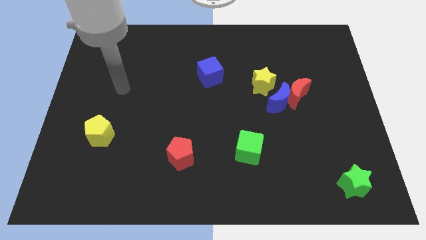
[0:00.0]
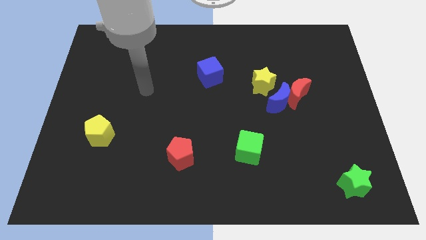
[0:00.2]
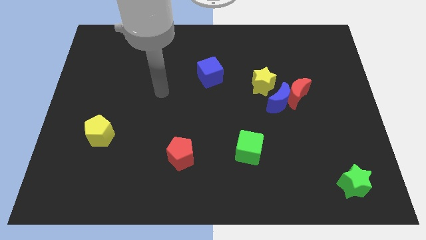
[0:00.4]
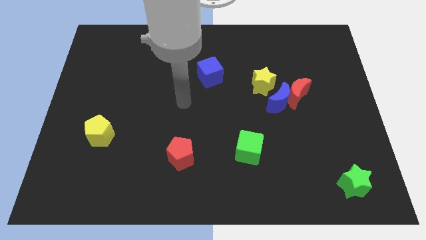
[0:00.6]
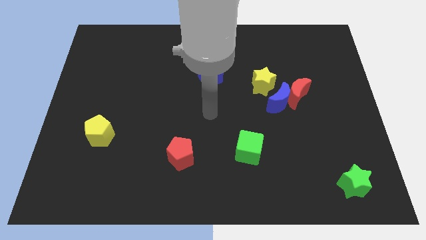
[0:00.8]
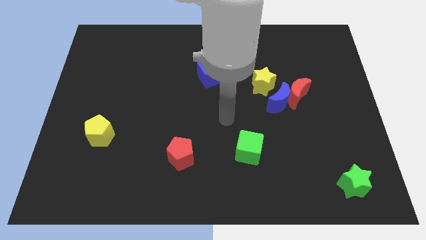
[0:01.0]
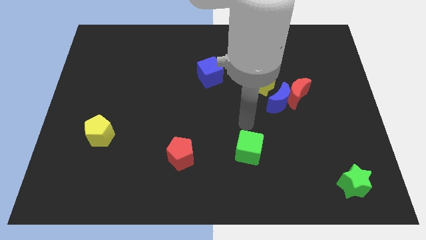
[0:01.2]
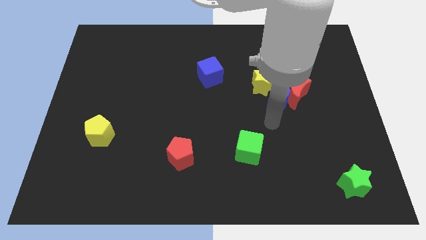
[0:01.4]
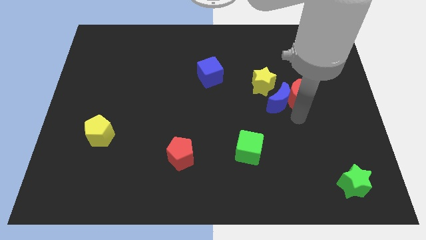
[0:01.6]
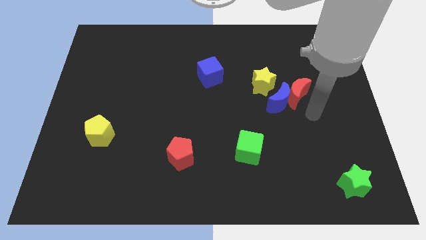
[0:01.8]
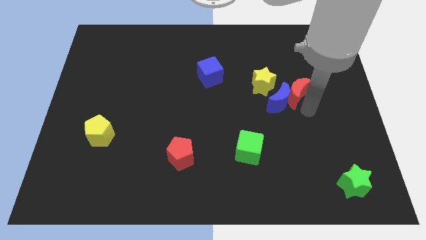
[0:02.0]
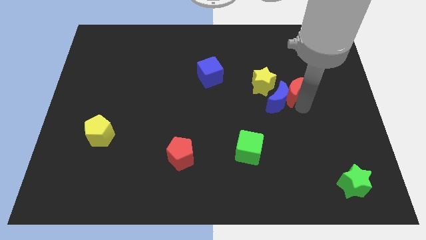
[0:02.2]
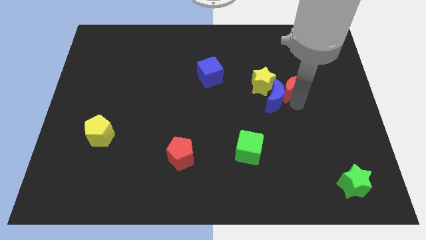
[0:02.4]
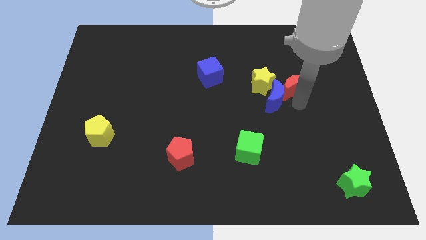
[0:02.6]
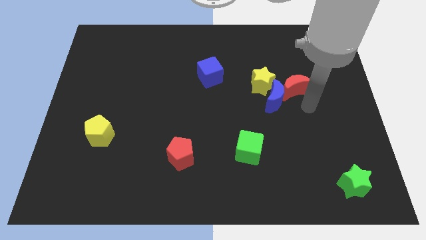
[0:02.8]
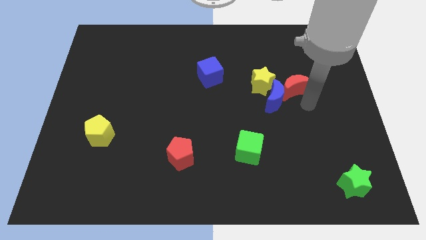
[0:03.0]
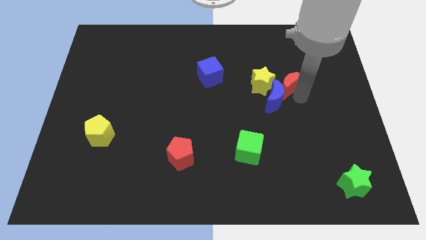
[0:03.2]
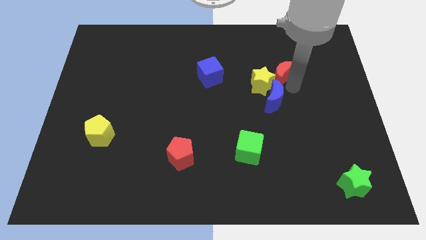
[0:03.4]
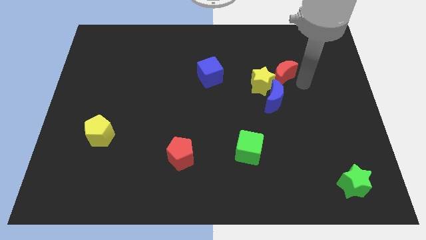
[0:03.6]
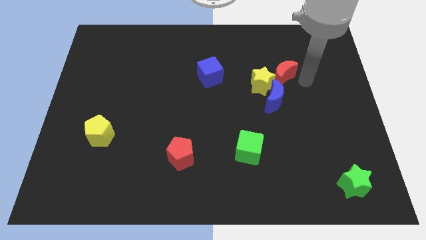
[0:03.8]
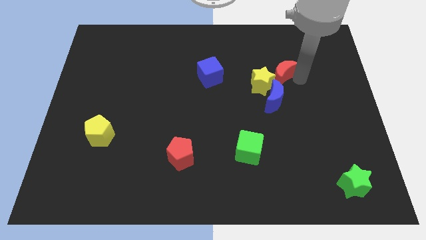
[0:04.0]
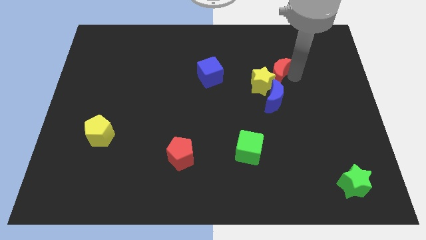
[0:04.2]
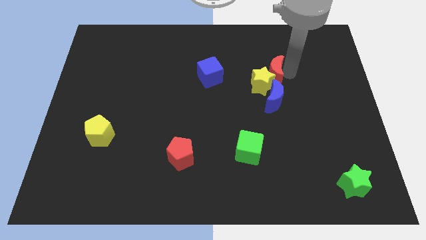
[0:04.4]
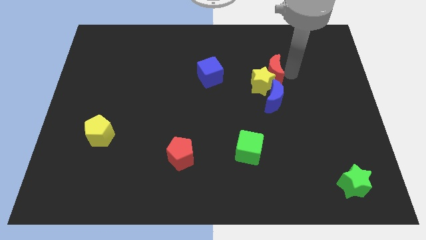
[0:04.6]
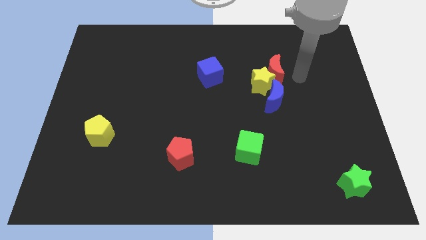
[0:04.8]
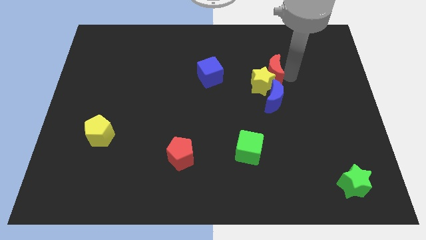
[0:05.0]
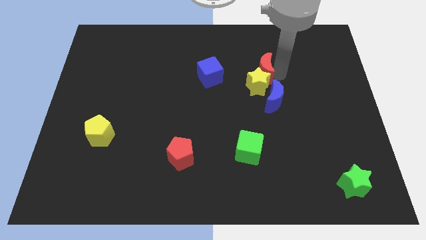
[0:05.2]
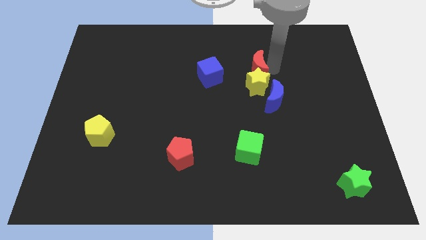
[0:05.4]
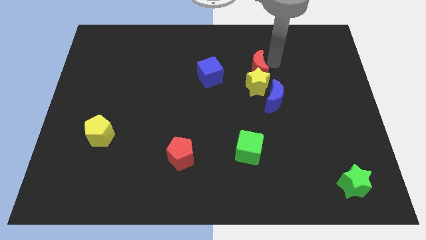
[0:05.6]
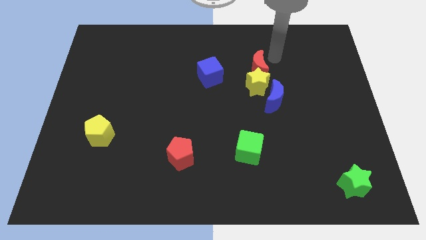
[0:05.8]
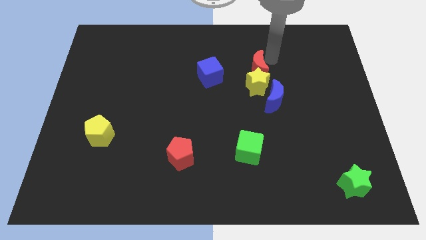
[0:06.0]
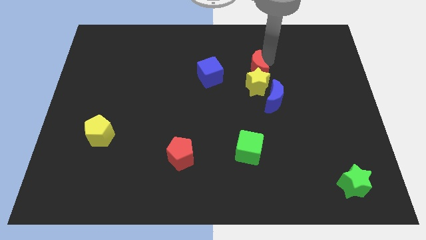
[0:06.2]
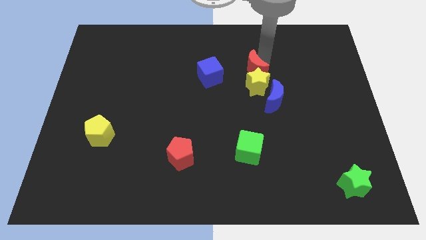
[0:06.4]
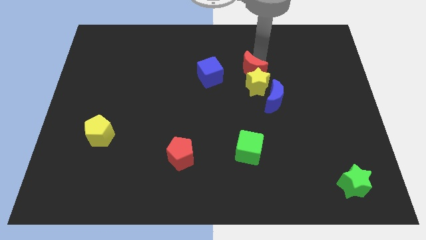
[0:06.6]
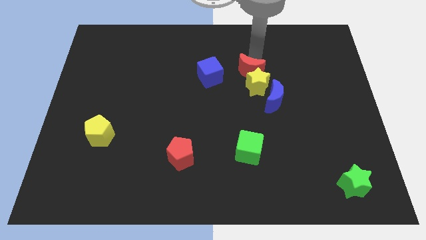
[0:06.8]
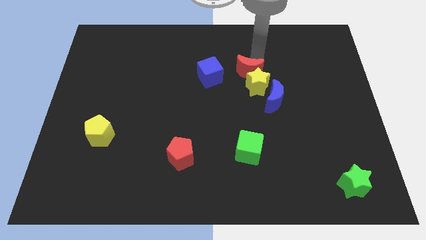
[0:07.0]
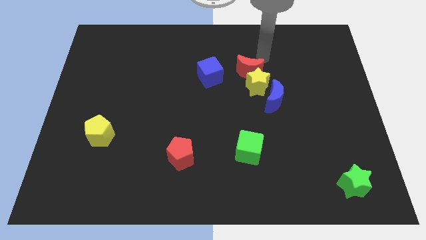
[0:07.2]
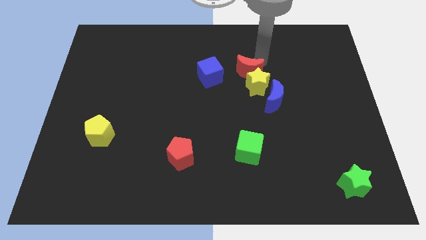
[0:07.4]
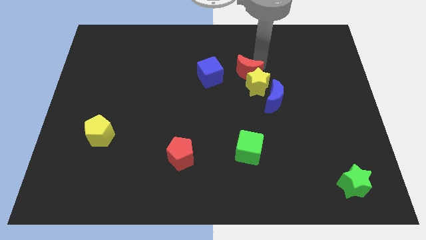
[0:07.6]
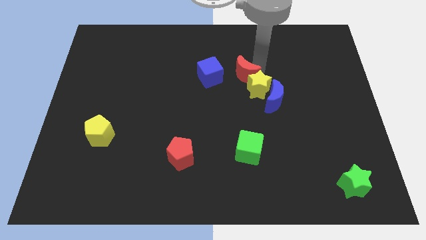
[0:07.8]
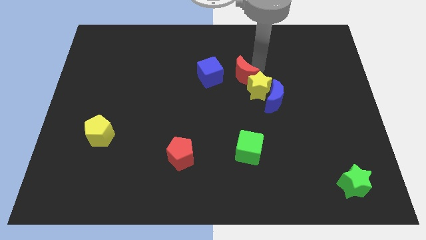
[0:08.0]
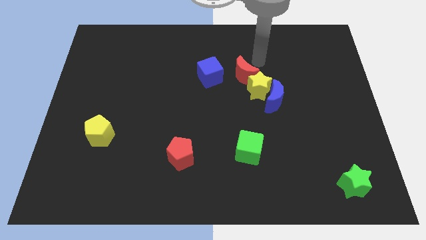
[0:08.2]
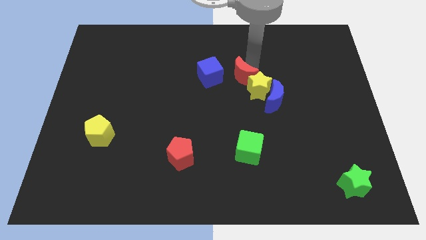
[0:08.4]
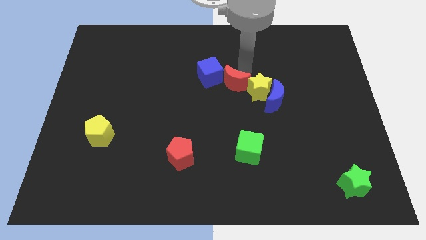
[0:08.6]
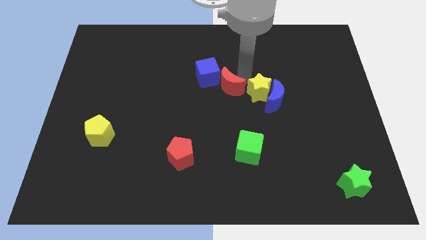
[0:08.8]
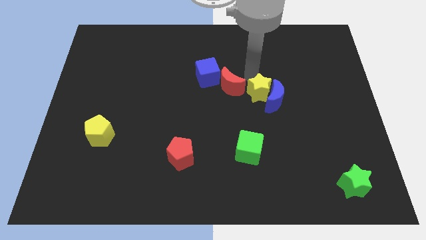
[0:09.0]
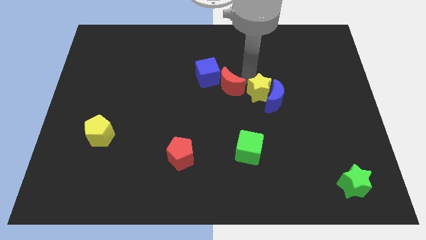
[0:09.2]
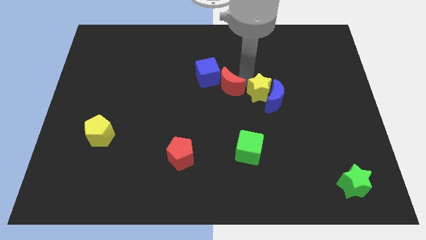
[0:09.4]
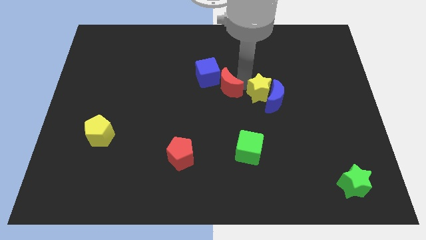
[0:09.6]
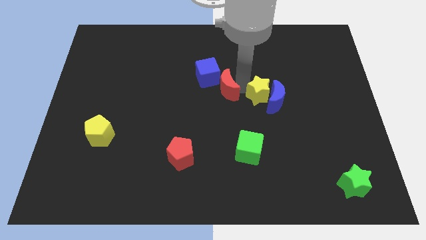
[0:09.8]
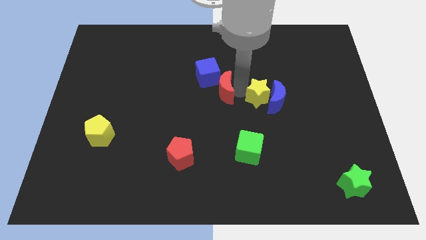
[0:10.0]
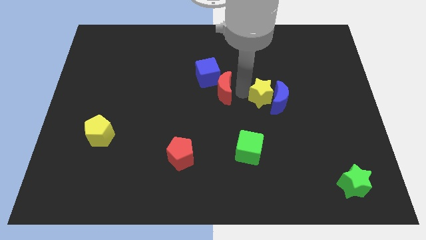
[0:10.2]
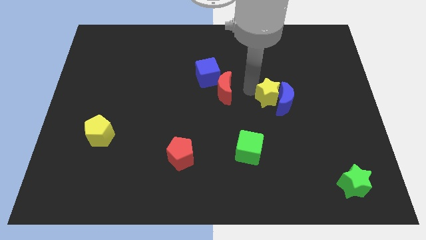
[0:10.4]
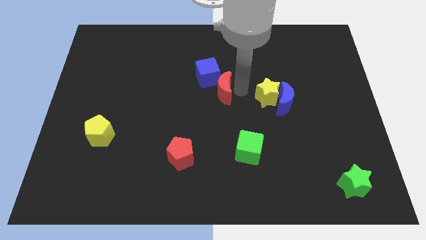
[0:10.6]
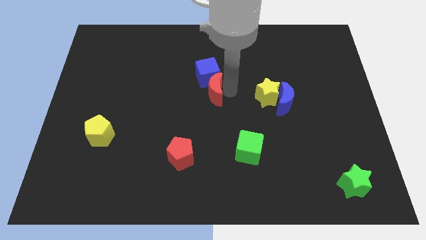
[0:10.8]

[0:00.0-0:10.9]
slide the red moon to the left

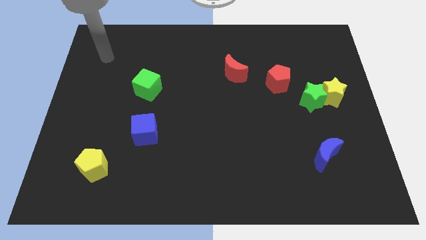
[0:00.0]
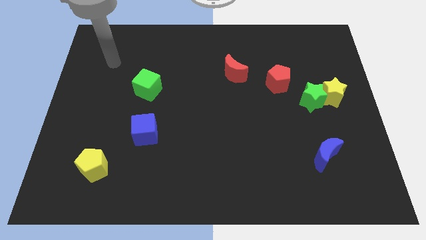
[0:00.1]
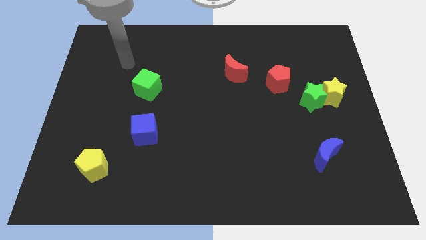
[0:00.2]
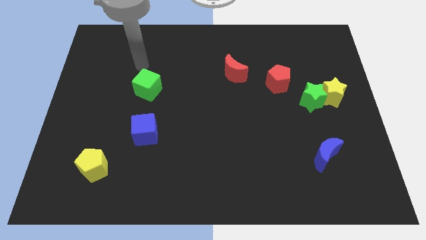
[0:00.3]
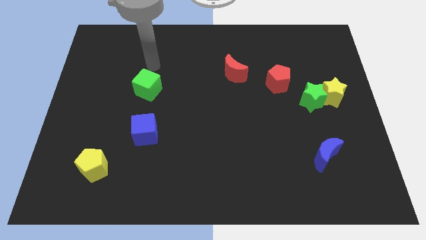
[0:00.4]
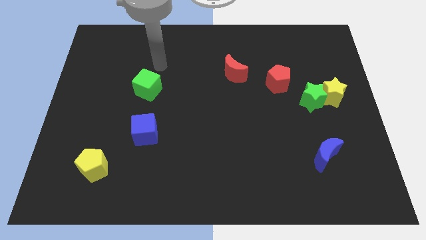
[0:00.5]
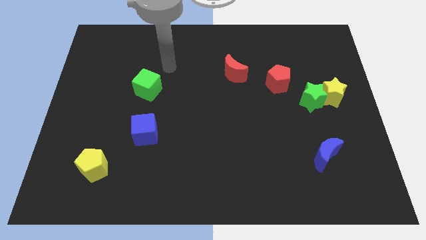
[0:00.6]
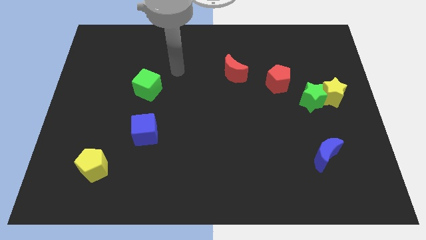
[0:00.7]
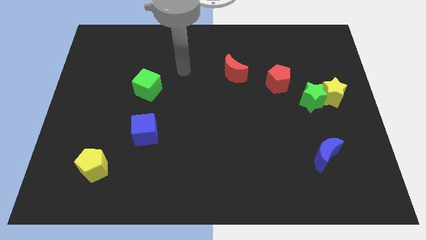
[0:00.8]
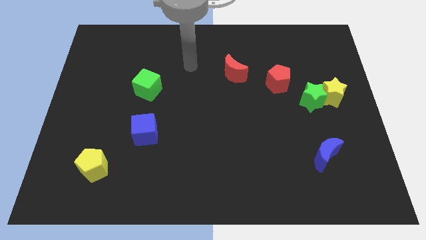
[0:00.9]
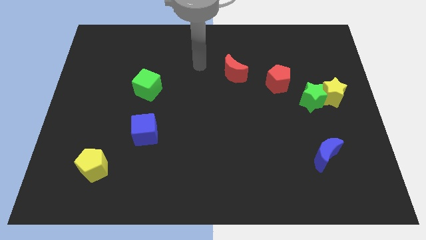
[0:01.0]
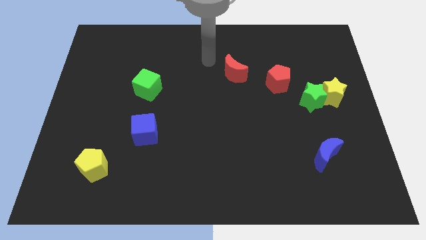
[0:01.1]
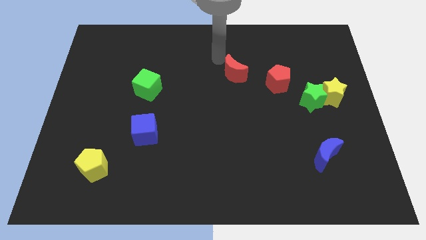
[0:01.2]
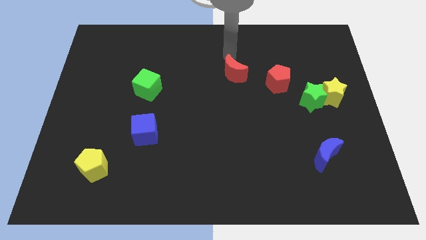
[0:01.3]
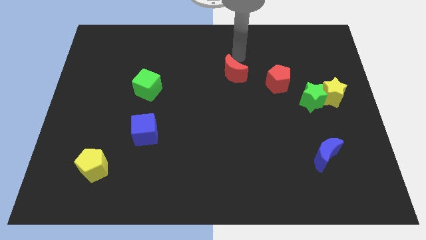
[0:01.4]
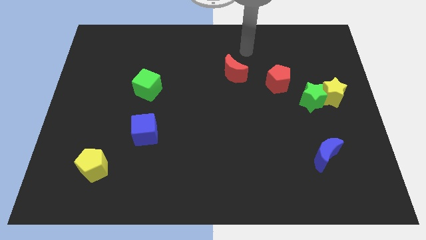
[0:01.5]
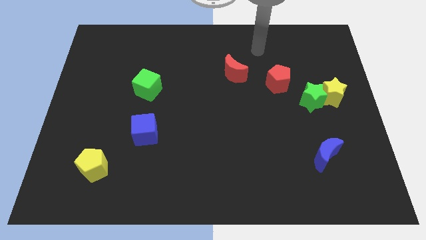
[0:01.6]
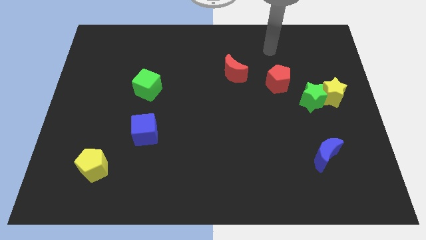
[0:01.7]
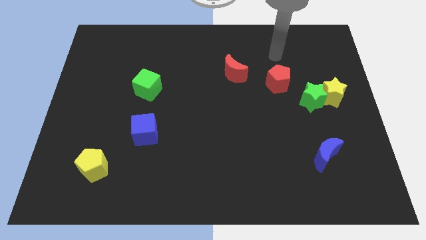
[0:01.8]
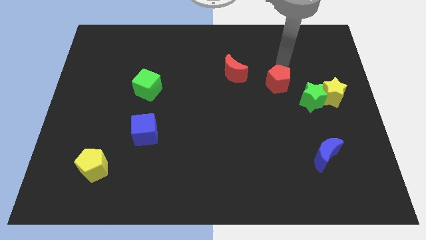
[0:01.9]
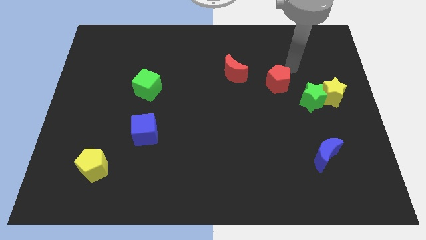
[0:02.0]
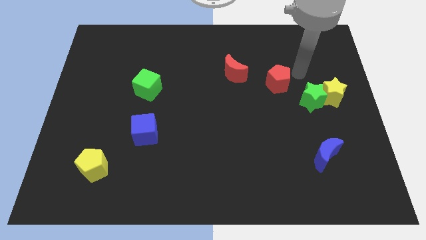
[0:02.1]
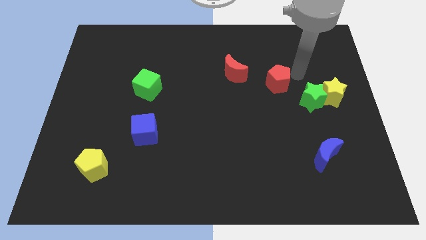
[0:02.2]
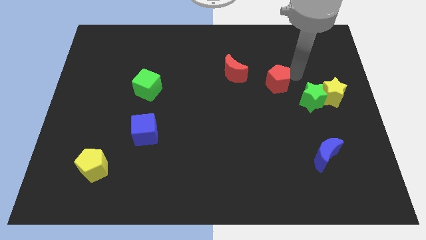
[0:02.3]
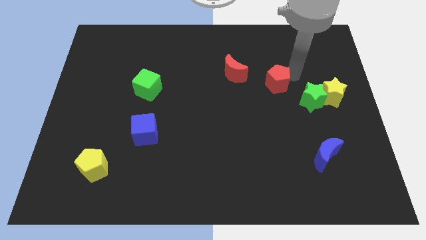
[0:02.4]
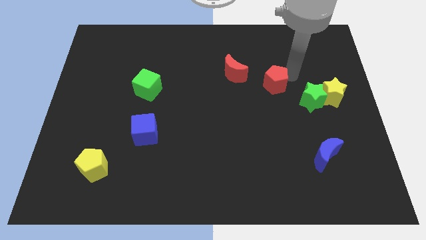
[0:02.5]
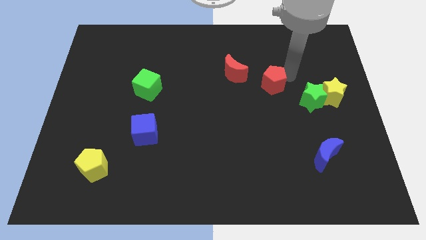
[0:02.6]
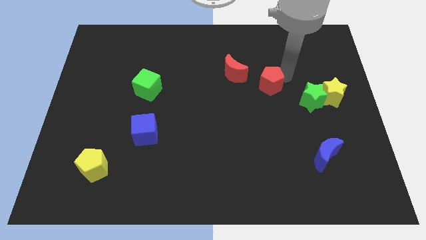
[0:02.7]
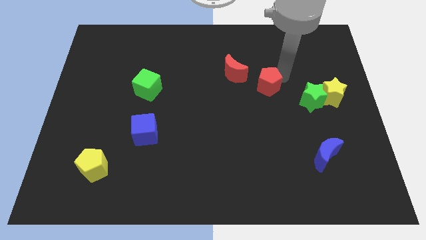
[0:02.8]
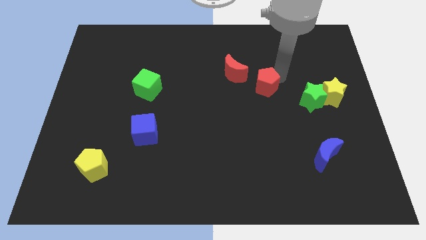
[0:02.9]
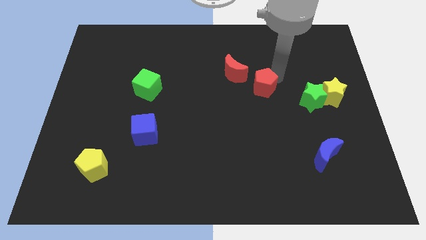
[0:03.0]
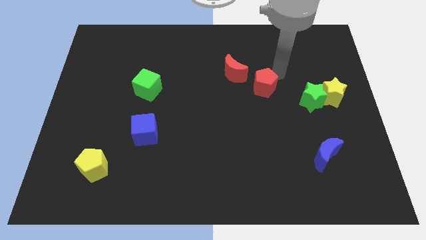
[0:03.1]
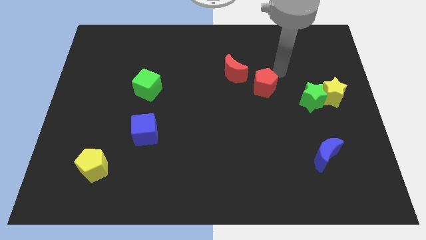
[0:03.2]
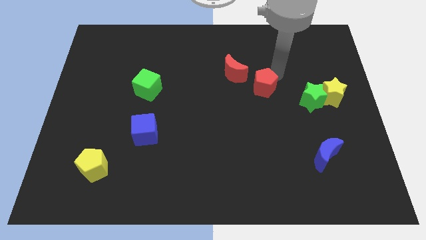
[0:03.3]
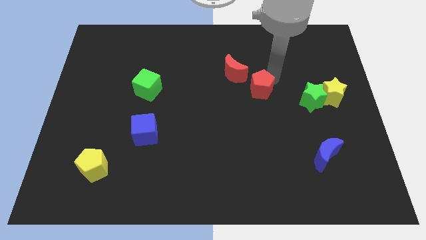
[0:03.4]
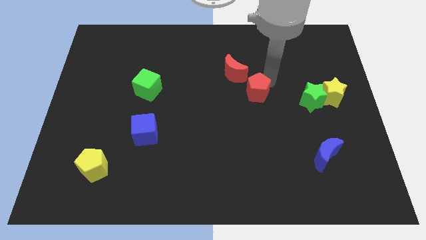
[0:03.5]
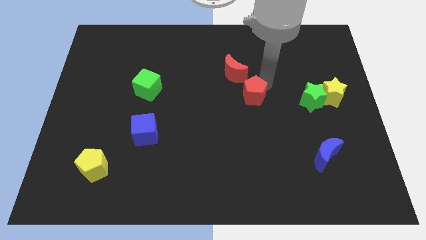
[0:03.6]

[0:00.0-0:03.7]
slightly slide the red pentagon down and to the left diagonally
